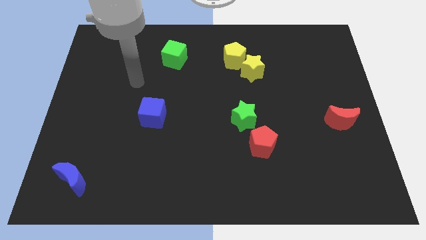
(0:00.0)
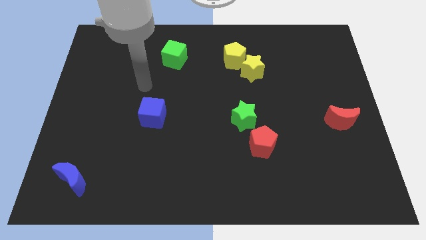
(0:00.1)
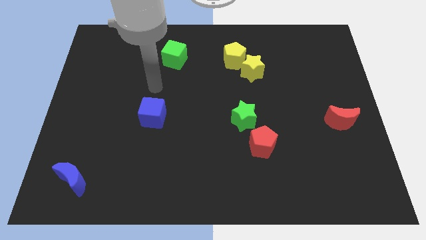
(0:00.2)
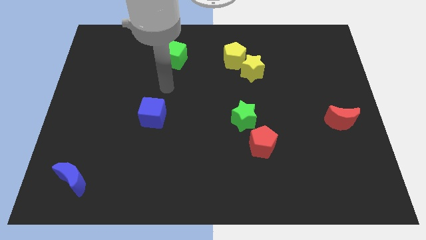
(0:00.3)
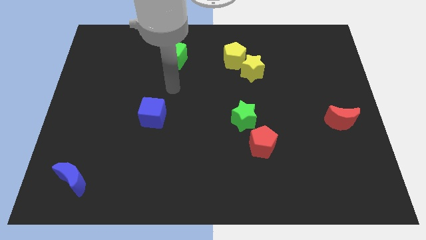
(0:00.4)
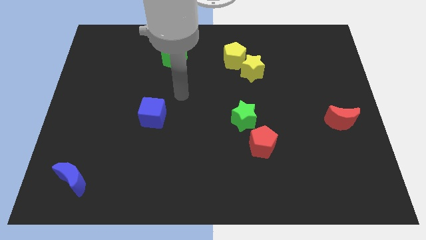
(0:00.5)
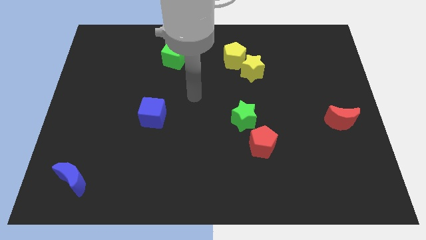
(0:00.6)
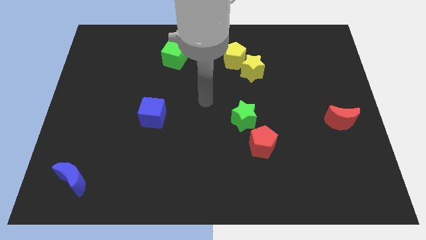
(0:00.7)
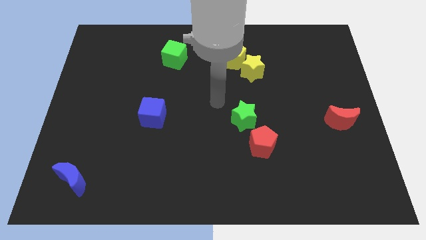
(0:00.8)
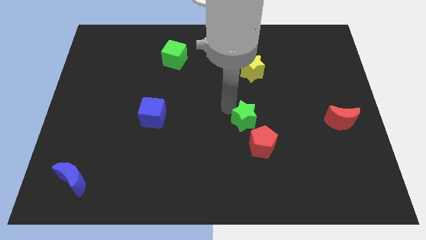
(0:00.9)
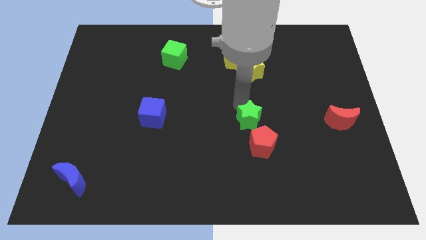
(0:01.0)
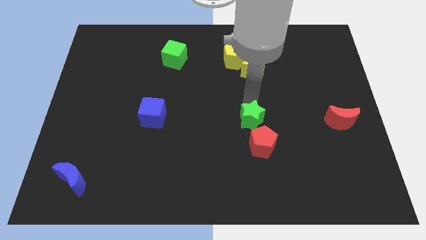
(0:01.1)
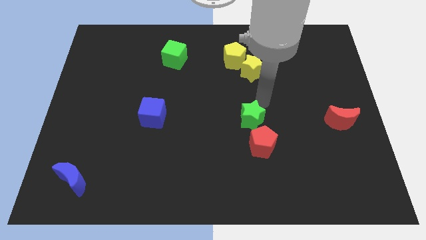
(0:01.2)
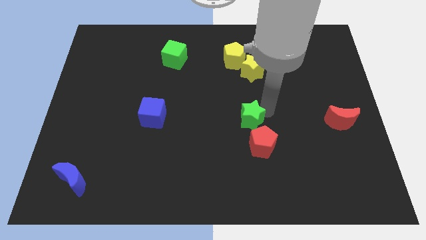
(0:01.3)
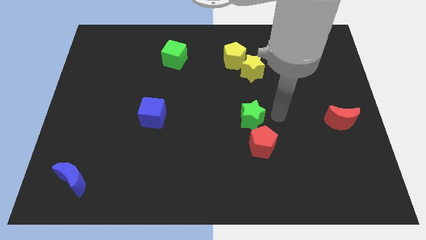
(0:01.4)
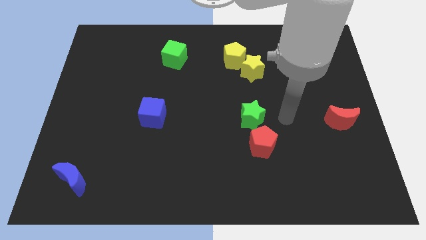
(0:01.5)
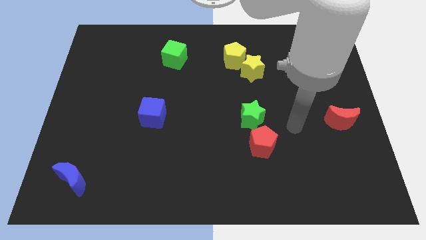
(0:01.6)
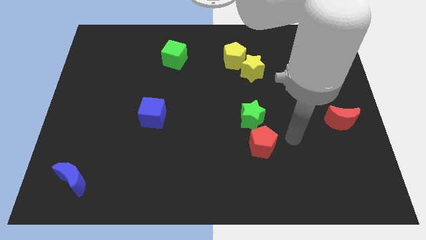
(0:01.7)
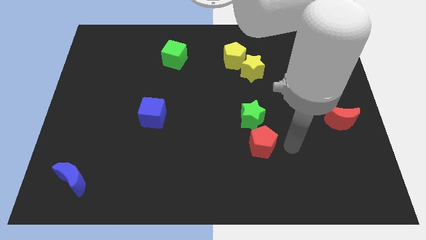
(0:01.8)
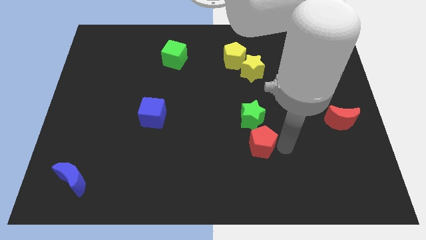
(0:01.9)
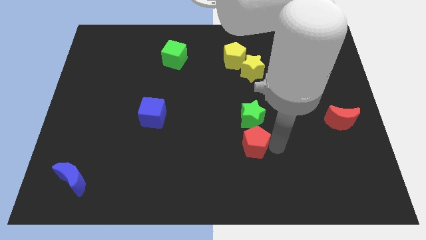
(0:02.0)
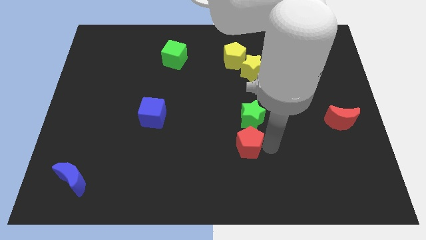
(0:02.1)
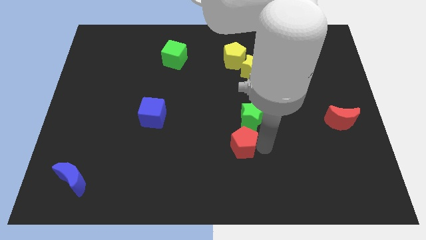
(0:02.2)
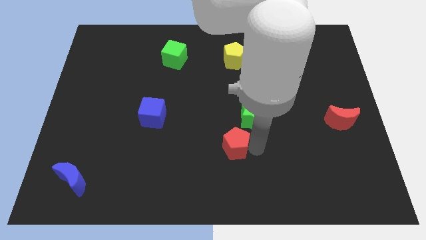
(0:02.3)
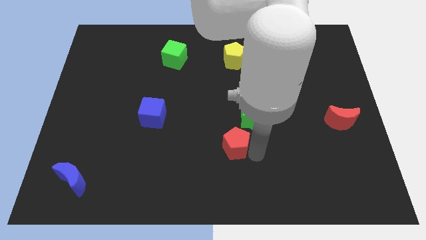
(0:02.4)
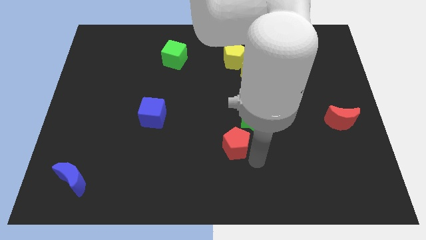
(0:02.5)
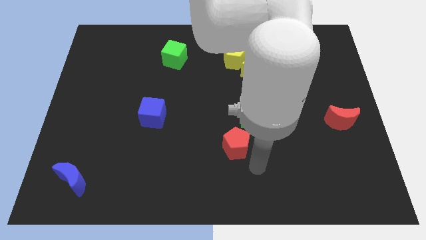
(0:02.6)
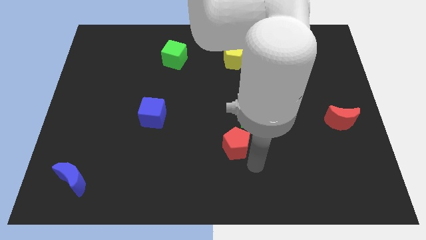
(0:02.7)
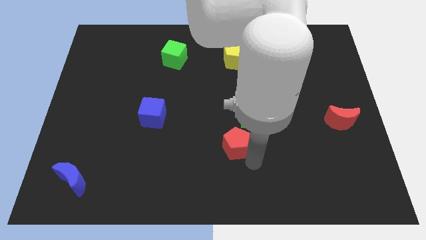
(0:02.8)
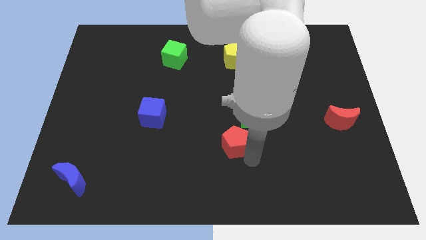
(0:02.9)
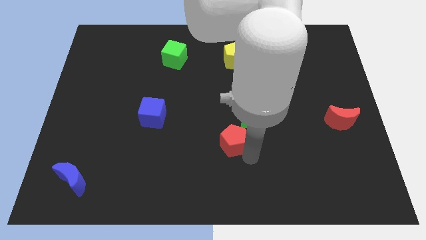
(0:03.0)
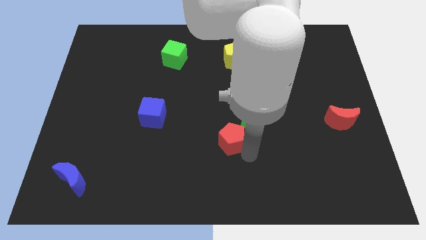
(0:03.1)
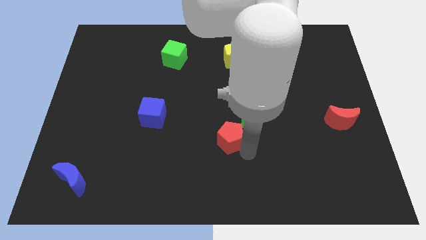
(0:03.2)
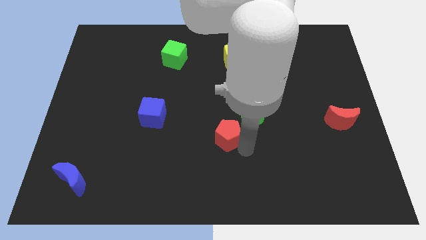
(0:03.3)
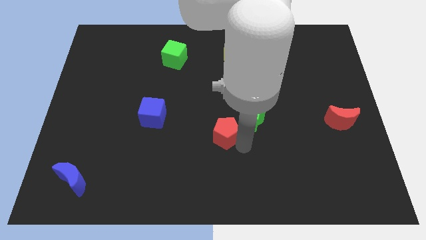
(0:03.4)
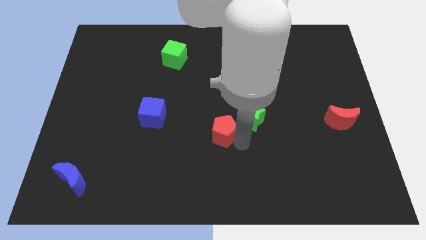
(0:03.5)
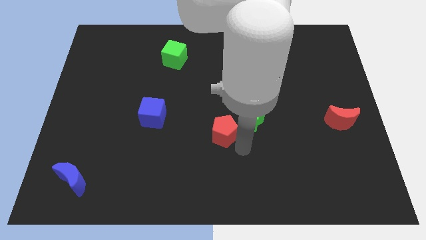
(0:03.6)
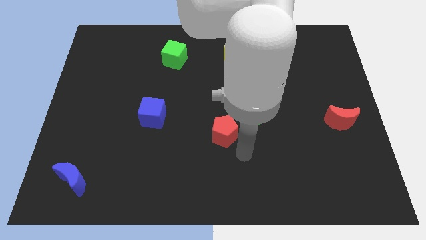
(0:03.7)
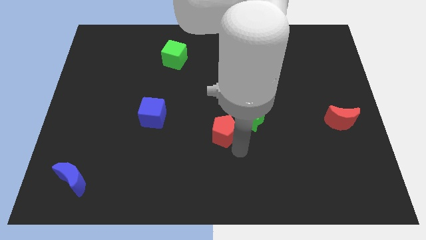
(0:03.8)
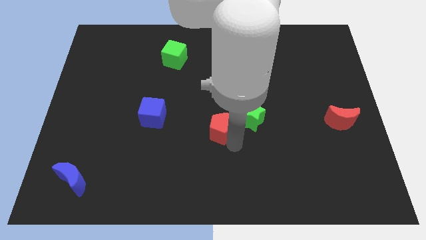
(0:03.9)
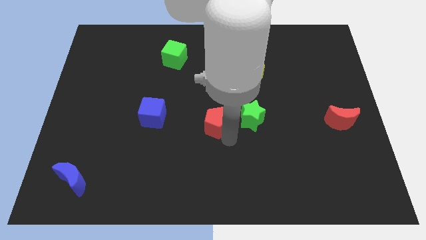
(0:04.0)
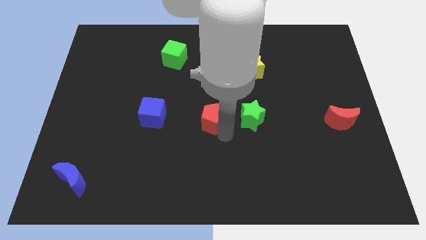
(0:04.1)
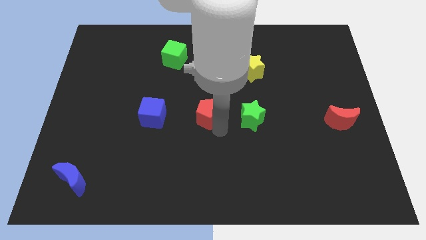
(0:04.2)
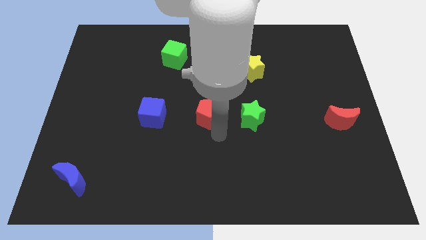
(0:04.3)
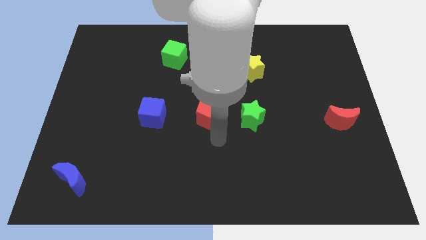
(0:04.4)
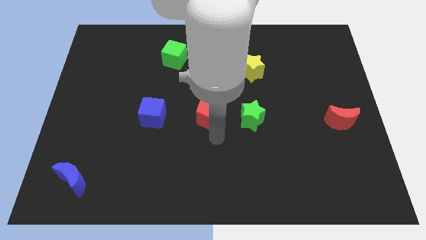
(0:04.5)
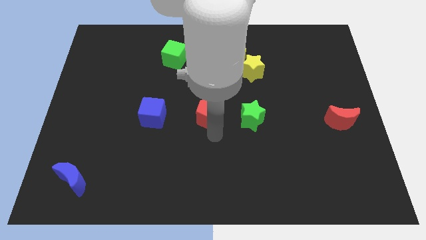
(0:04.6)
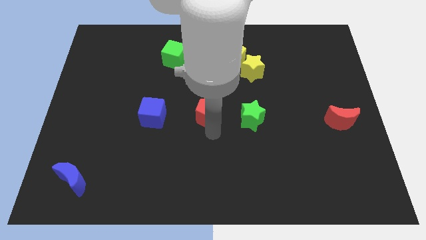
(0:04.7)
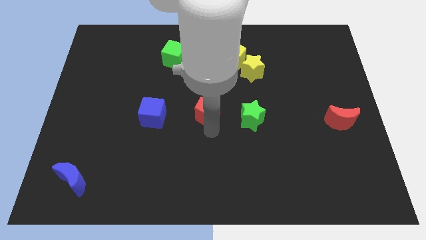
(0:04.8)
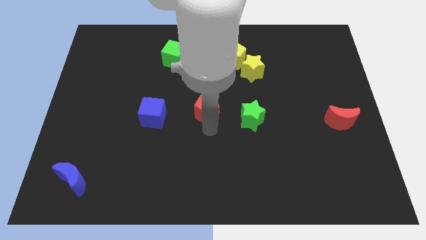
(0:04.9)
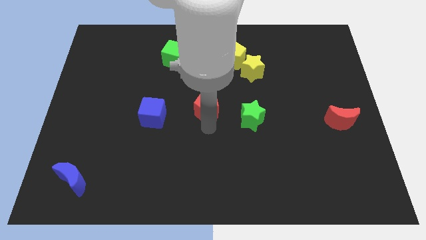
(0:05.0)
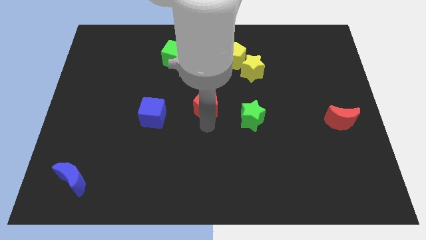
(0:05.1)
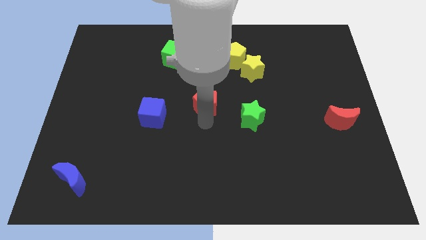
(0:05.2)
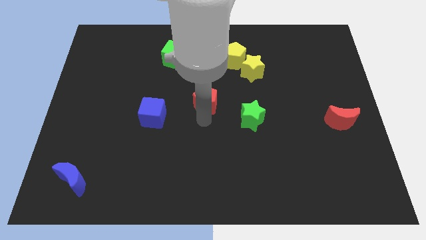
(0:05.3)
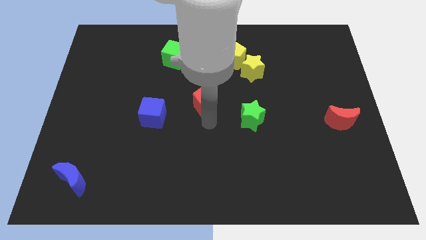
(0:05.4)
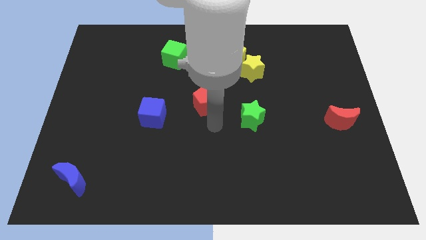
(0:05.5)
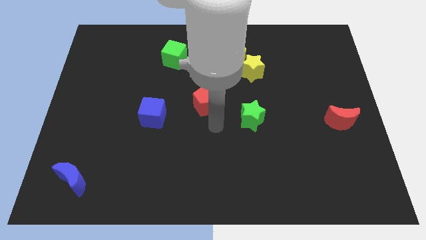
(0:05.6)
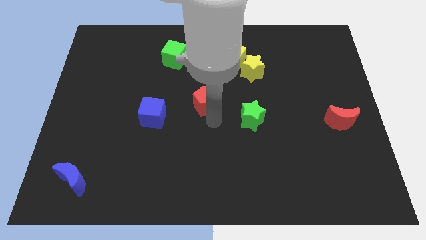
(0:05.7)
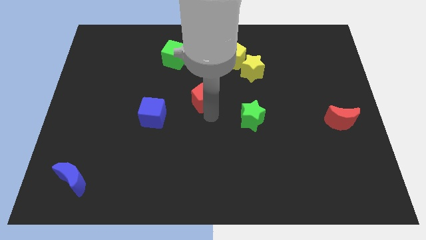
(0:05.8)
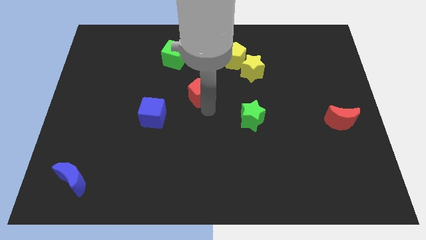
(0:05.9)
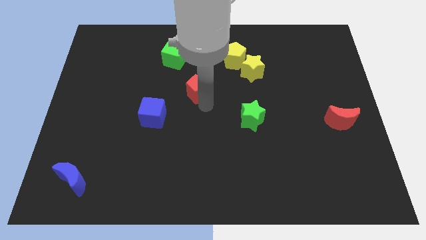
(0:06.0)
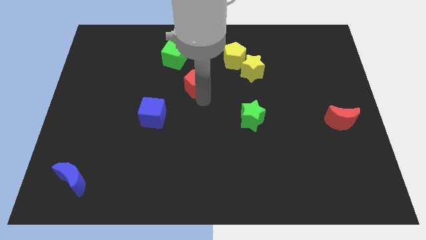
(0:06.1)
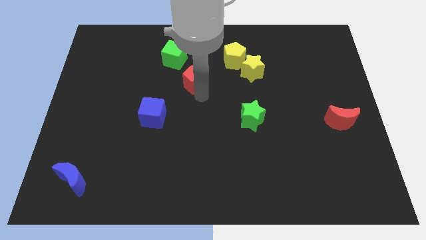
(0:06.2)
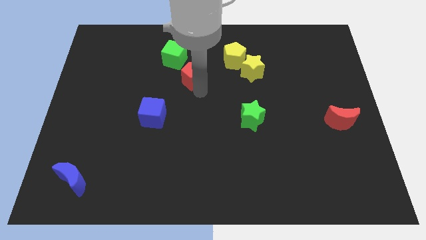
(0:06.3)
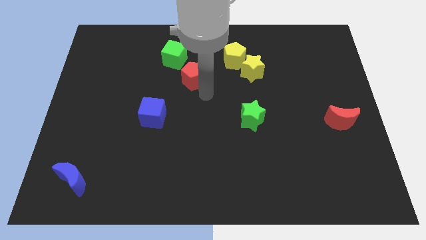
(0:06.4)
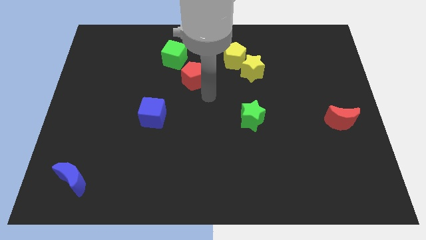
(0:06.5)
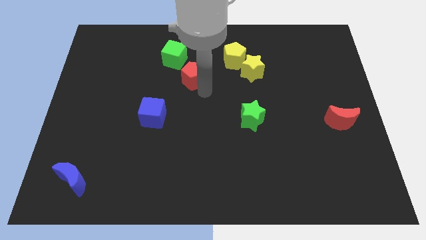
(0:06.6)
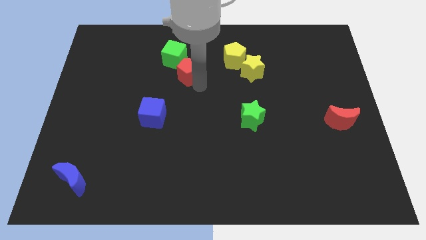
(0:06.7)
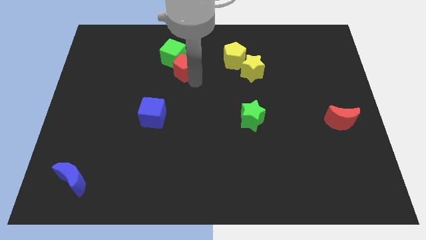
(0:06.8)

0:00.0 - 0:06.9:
put the red pentagon towards the green cube
